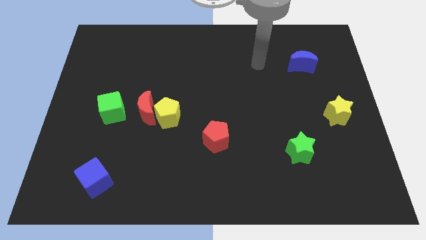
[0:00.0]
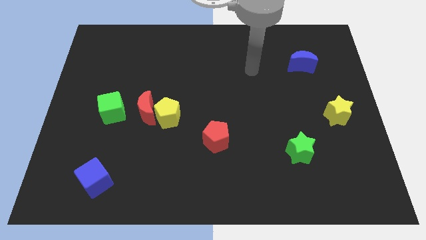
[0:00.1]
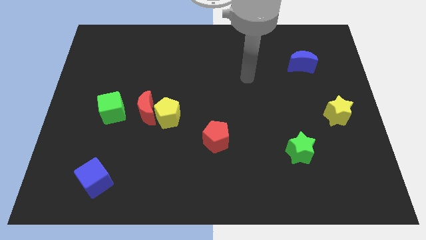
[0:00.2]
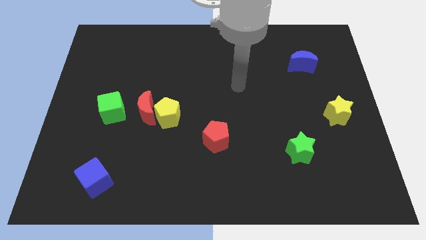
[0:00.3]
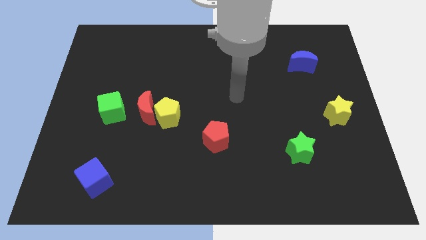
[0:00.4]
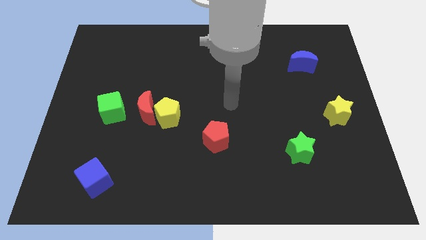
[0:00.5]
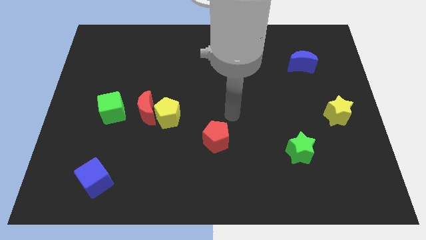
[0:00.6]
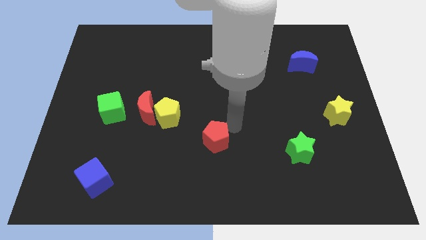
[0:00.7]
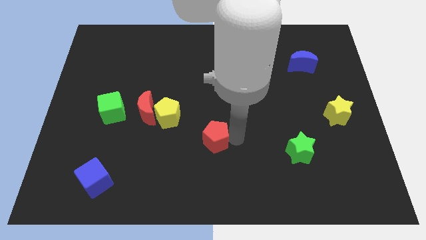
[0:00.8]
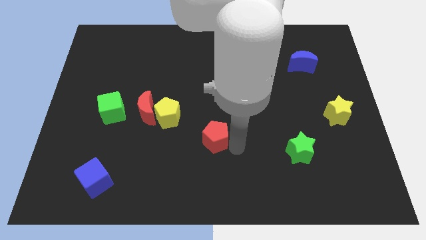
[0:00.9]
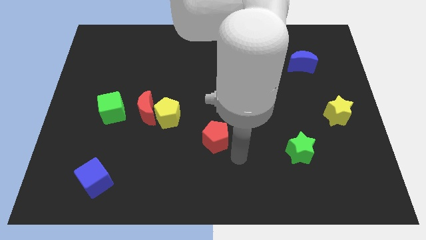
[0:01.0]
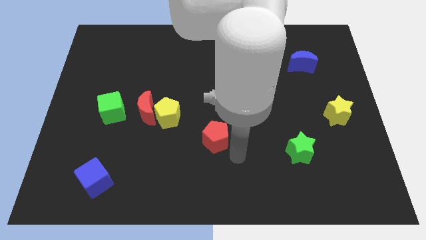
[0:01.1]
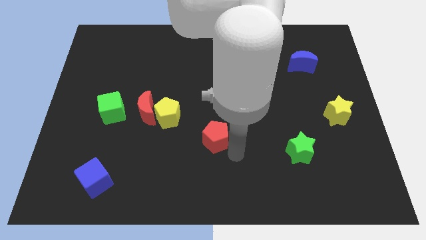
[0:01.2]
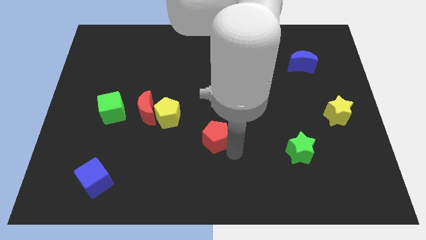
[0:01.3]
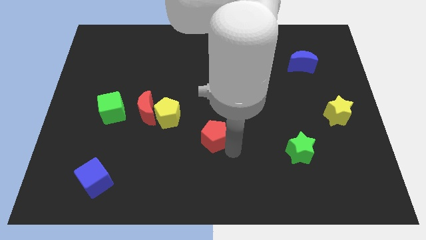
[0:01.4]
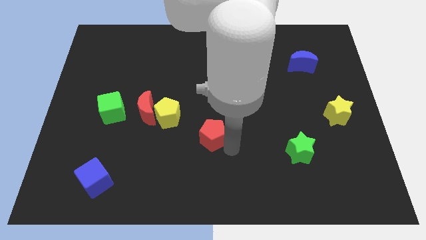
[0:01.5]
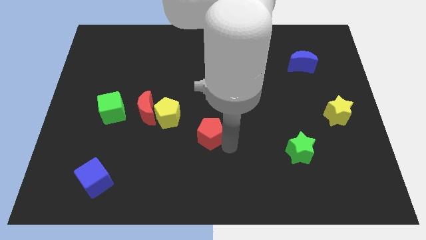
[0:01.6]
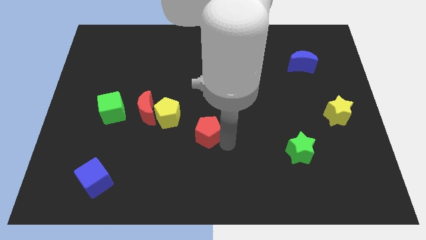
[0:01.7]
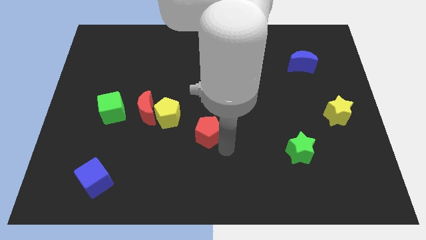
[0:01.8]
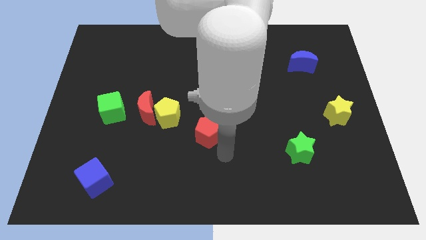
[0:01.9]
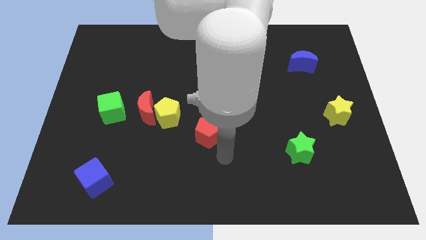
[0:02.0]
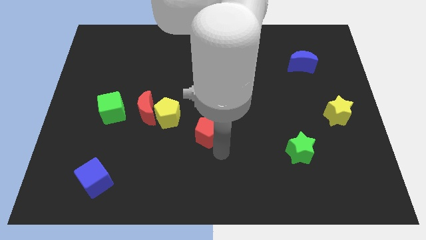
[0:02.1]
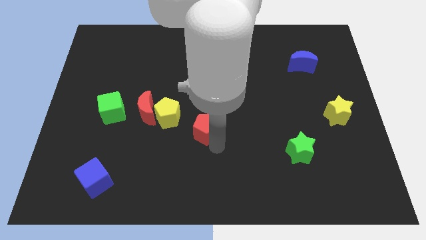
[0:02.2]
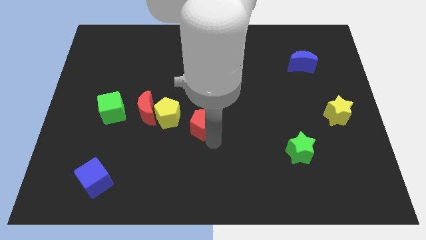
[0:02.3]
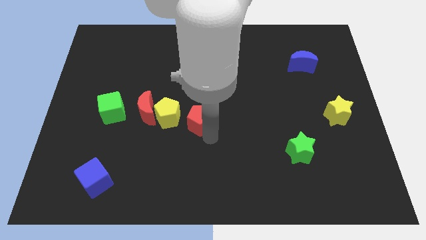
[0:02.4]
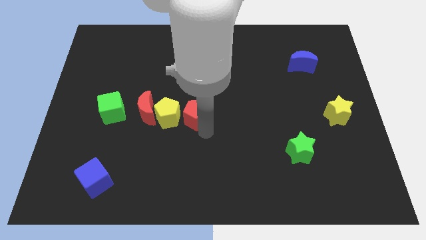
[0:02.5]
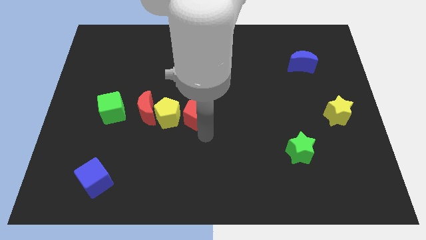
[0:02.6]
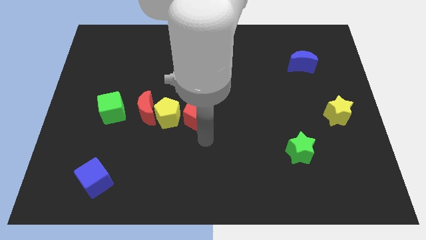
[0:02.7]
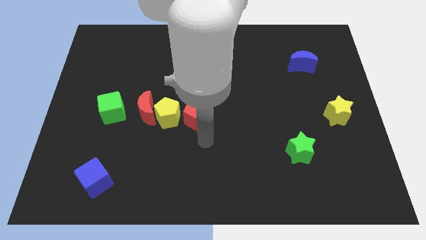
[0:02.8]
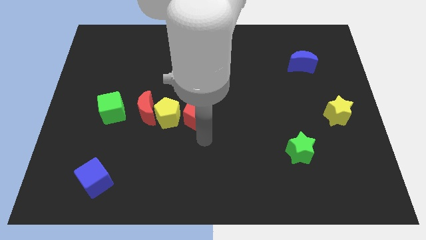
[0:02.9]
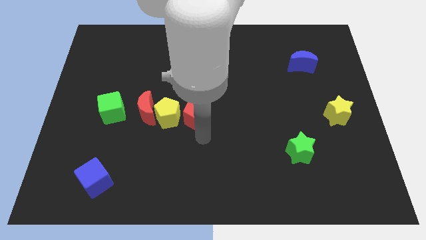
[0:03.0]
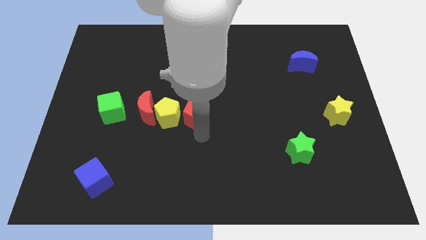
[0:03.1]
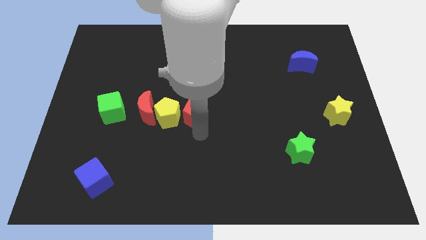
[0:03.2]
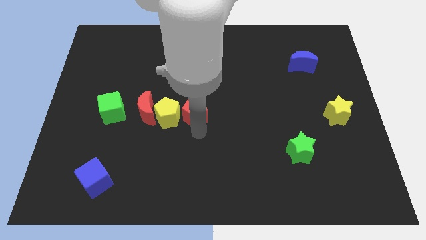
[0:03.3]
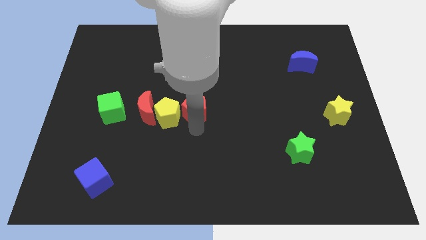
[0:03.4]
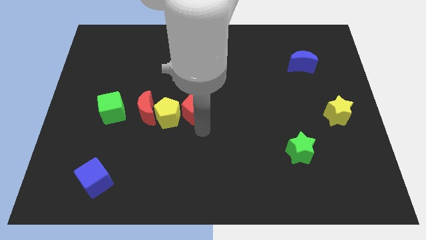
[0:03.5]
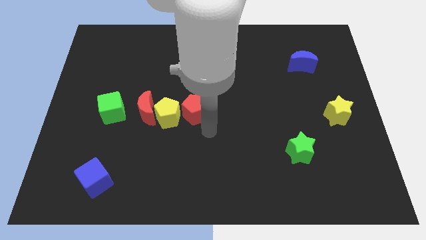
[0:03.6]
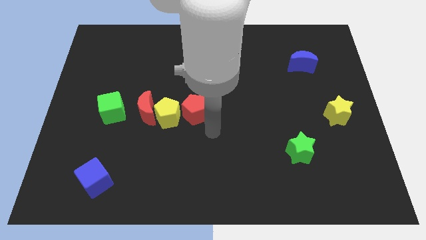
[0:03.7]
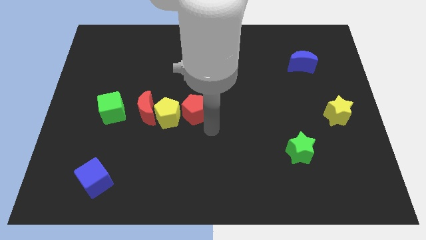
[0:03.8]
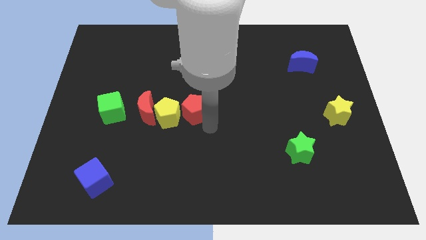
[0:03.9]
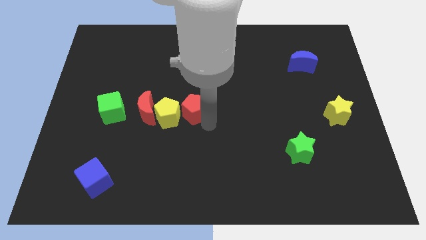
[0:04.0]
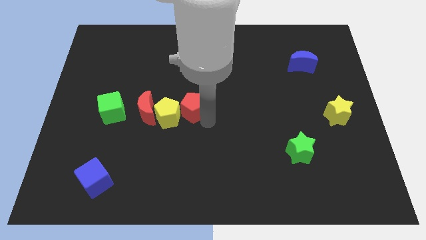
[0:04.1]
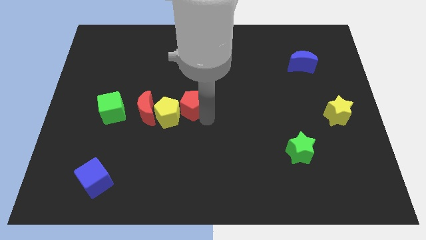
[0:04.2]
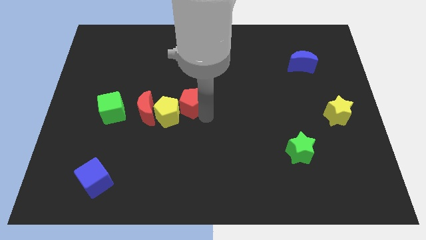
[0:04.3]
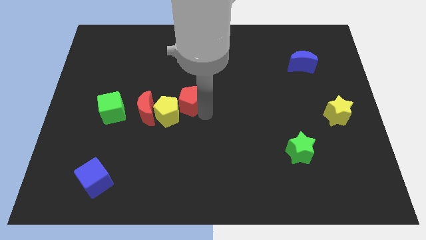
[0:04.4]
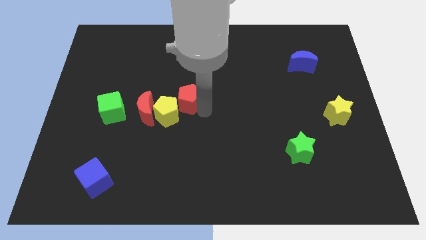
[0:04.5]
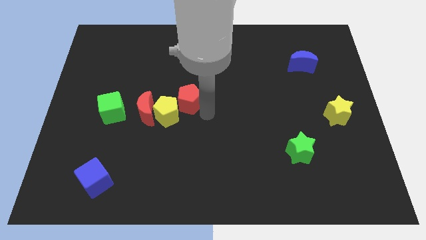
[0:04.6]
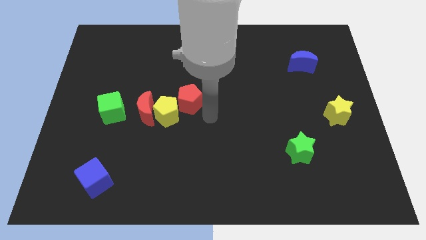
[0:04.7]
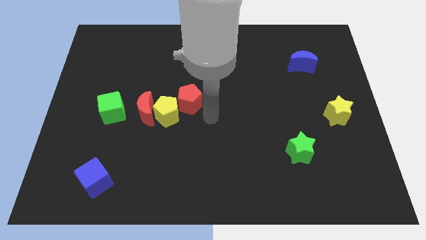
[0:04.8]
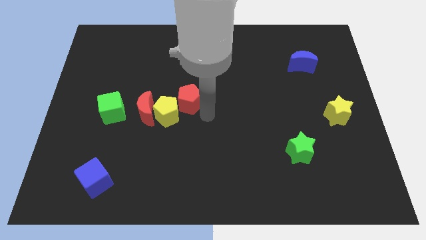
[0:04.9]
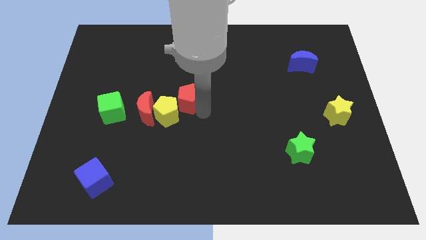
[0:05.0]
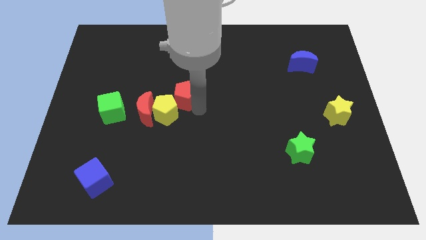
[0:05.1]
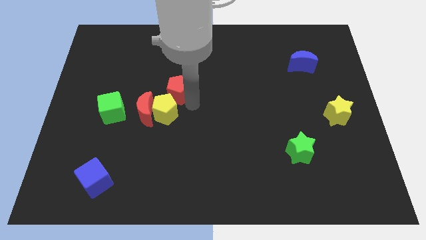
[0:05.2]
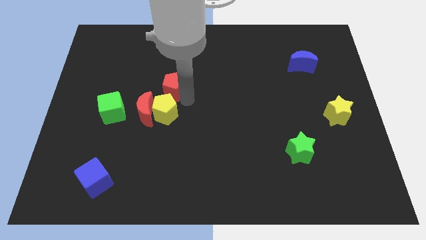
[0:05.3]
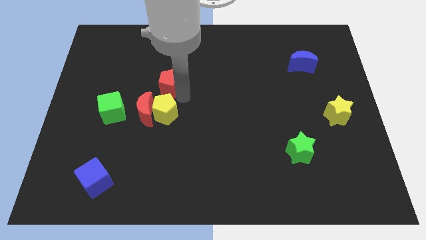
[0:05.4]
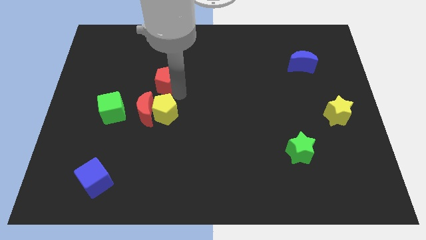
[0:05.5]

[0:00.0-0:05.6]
push the red pentagon diagonally upwards and to the left

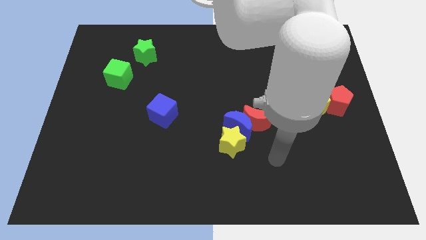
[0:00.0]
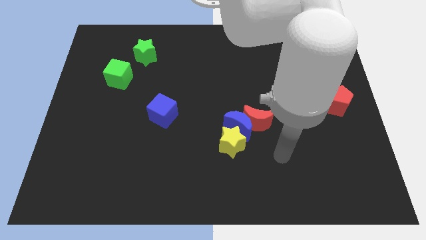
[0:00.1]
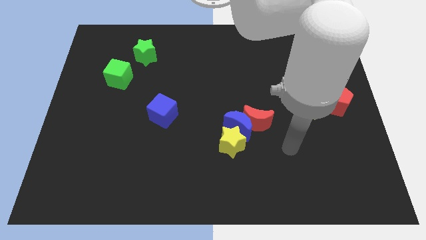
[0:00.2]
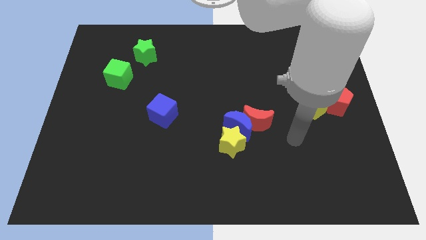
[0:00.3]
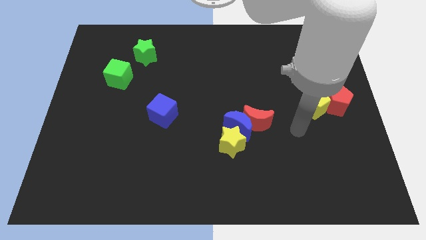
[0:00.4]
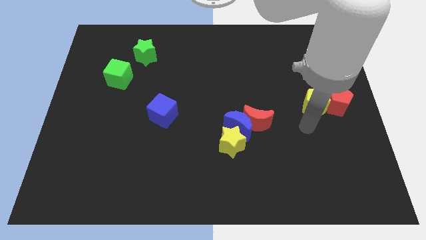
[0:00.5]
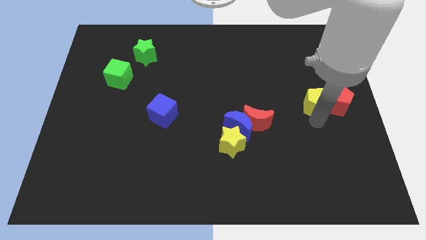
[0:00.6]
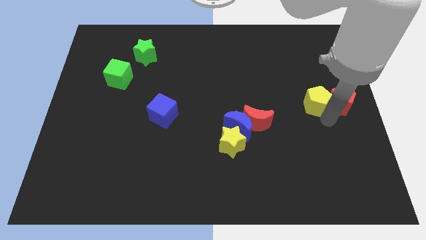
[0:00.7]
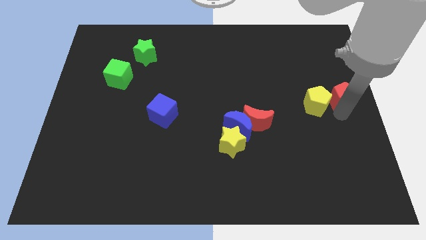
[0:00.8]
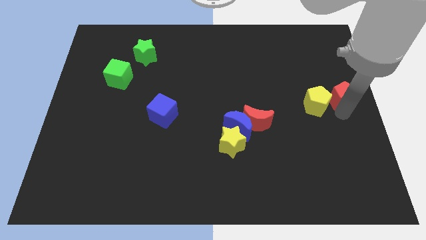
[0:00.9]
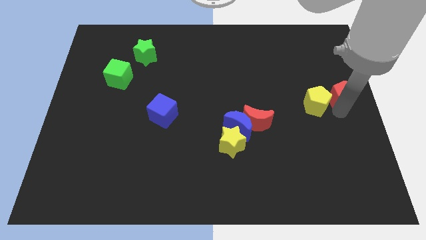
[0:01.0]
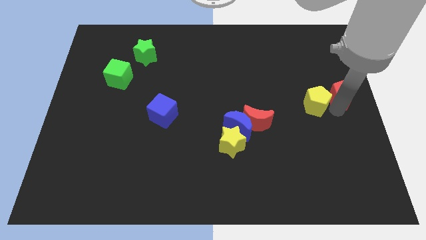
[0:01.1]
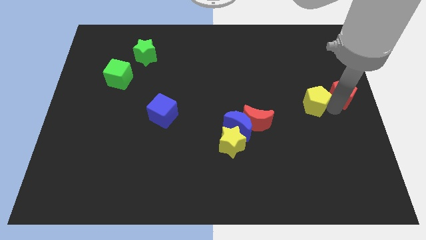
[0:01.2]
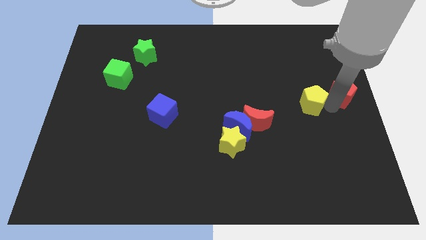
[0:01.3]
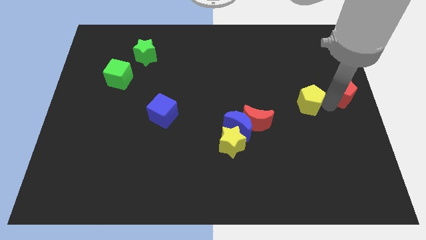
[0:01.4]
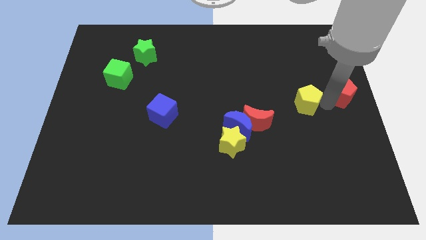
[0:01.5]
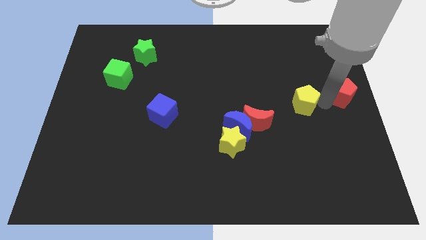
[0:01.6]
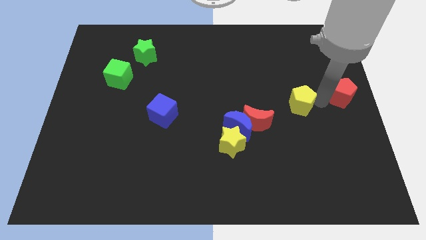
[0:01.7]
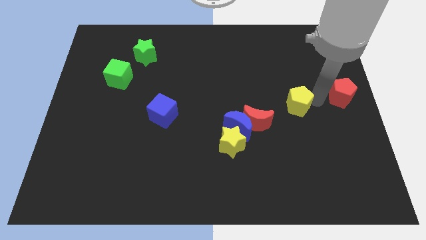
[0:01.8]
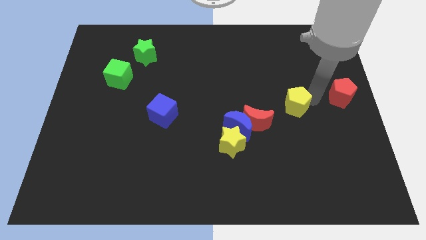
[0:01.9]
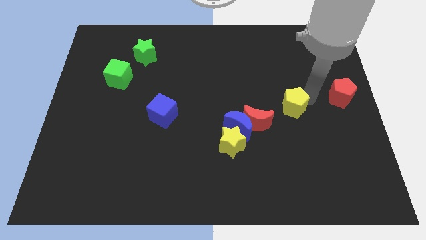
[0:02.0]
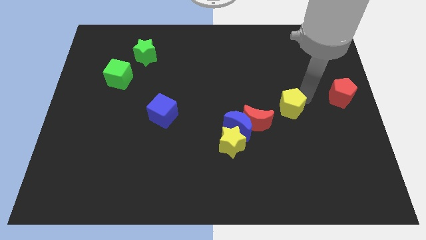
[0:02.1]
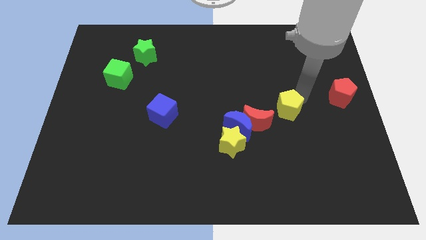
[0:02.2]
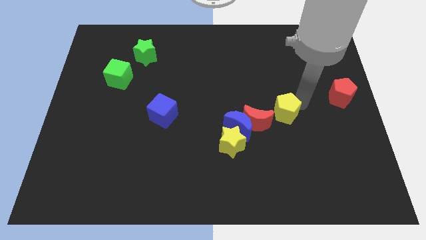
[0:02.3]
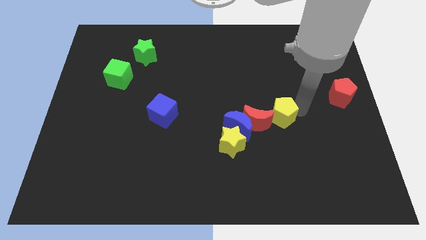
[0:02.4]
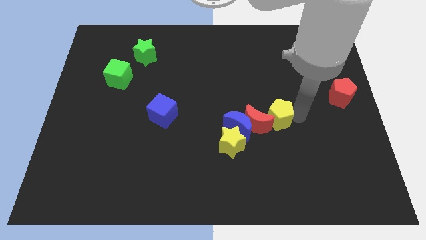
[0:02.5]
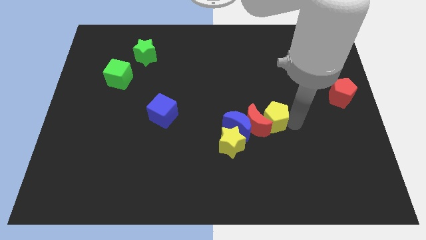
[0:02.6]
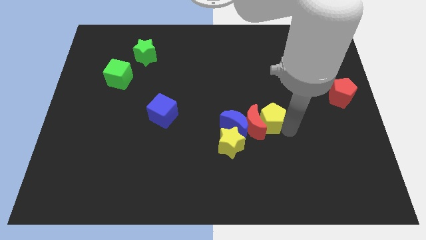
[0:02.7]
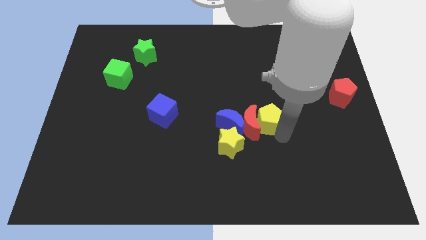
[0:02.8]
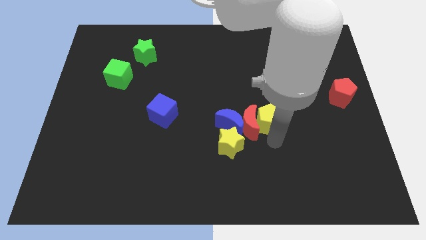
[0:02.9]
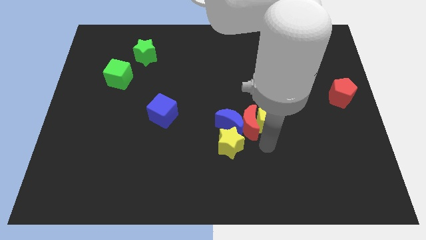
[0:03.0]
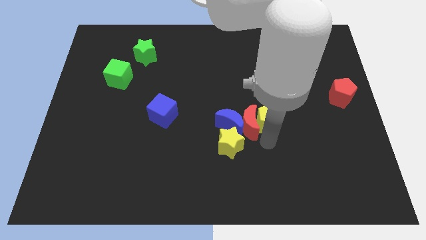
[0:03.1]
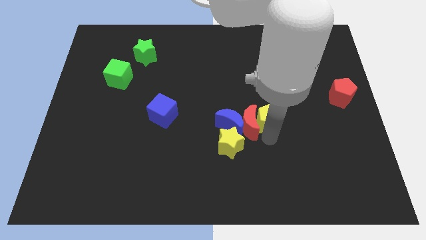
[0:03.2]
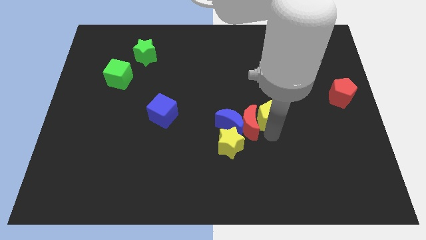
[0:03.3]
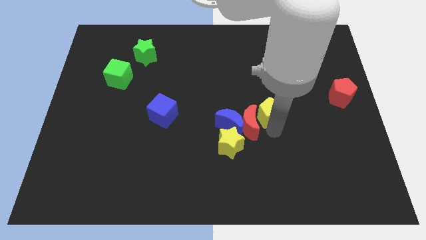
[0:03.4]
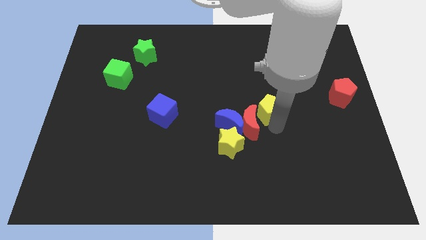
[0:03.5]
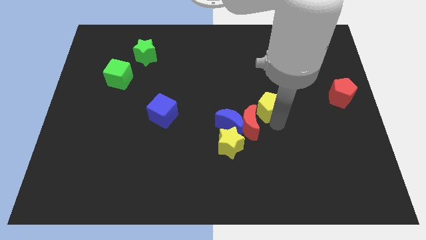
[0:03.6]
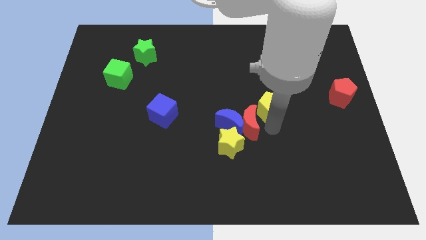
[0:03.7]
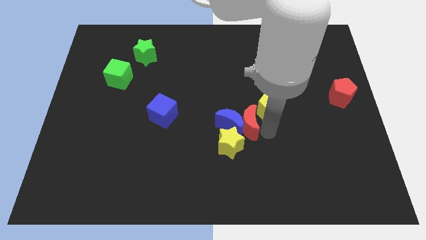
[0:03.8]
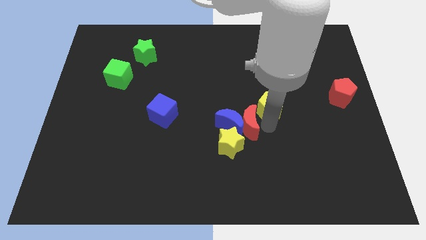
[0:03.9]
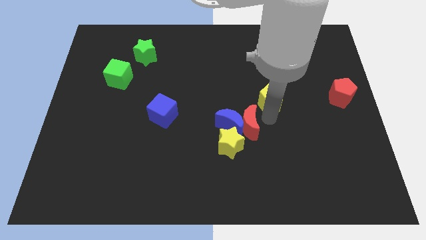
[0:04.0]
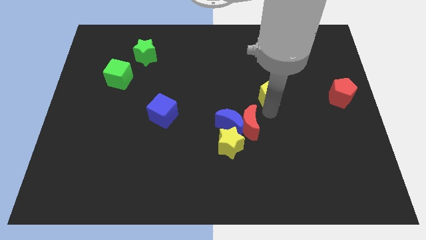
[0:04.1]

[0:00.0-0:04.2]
slightly move the yellow pentagon upwards and then to the left
